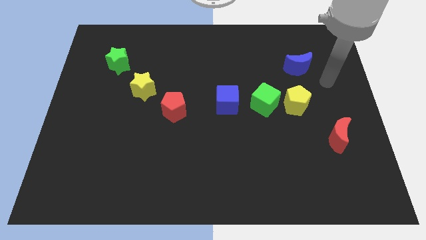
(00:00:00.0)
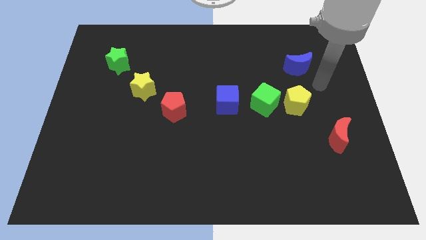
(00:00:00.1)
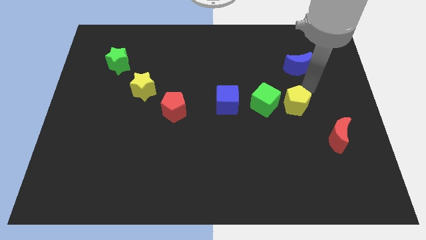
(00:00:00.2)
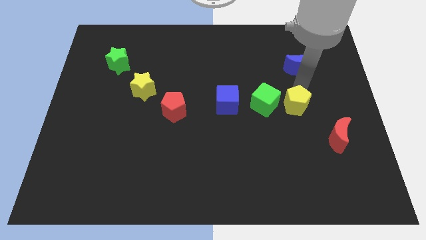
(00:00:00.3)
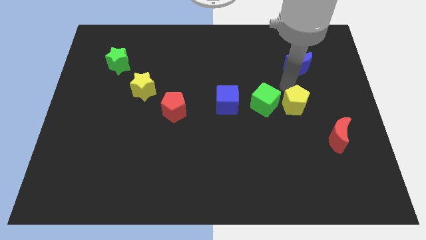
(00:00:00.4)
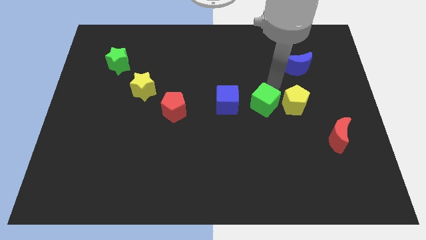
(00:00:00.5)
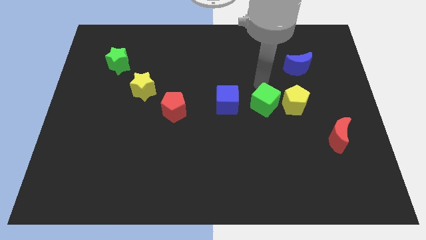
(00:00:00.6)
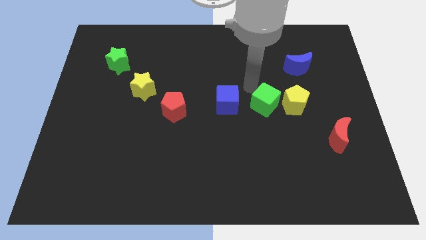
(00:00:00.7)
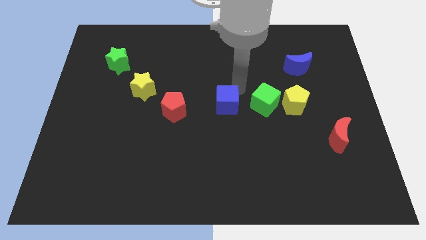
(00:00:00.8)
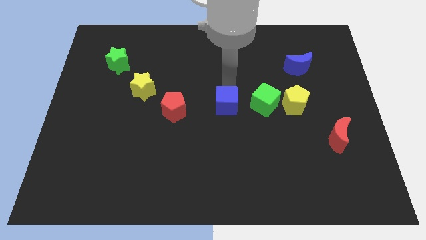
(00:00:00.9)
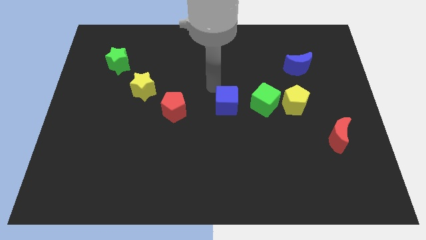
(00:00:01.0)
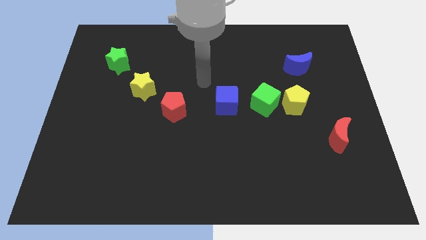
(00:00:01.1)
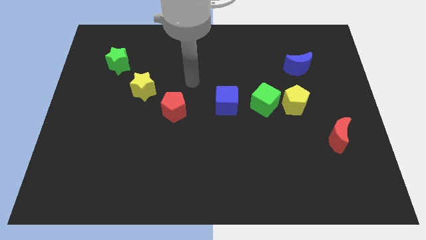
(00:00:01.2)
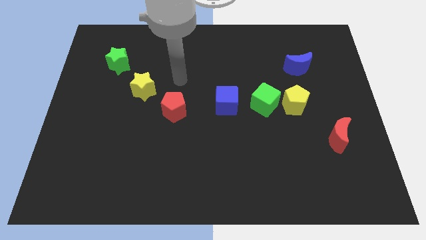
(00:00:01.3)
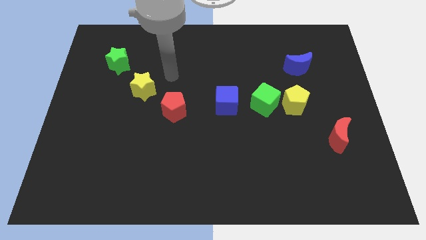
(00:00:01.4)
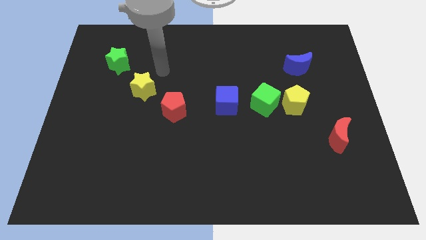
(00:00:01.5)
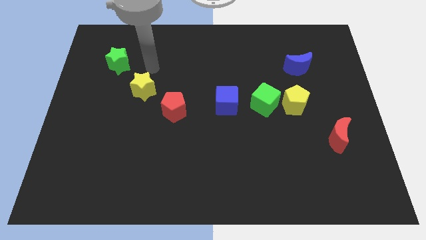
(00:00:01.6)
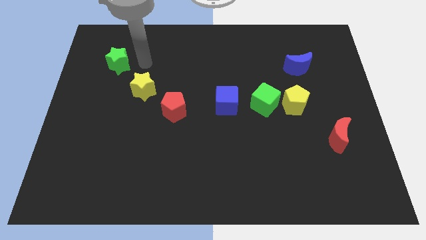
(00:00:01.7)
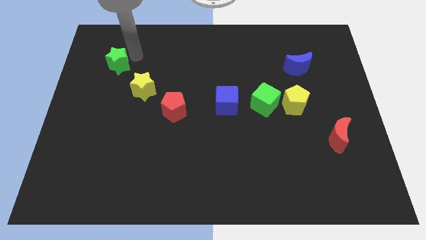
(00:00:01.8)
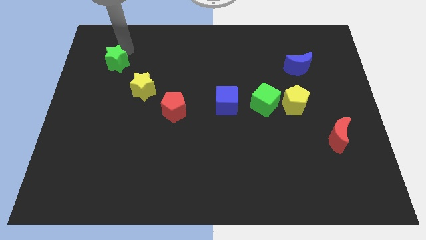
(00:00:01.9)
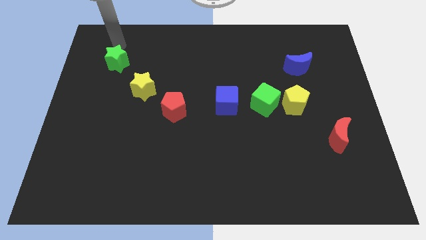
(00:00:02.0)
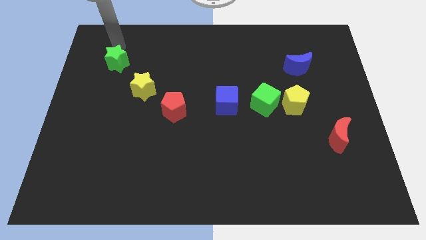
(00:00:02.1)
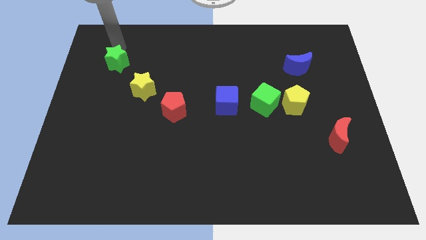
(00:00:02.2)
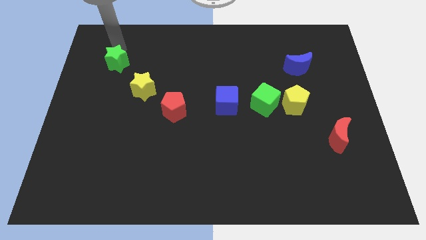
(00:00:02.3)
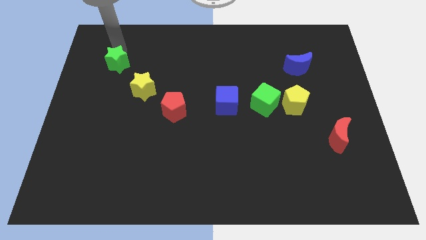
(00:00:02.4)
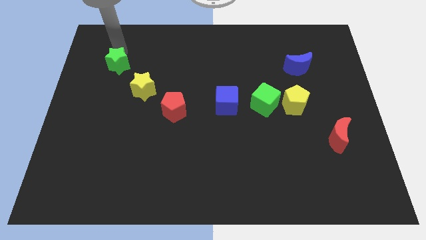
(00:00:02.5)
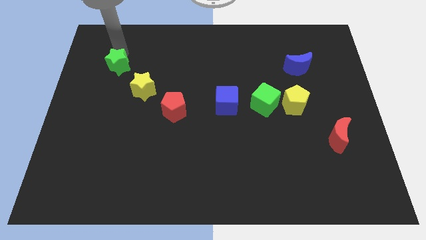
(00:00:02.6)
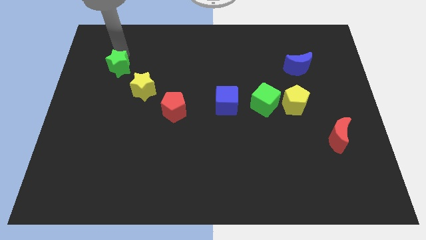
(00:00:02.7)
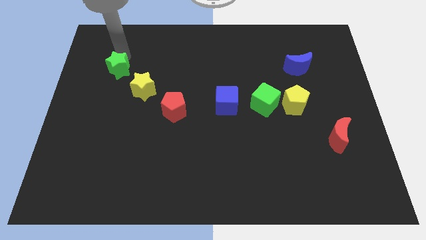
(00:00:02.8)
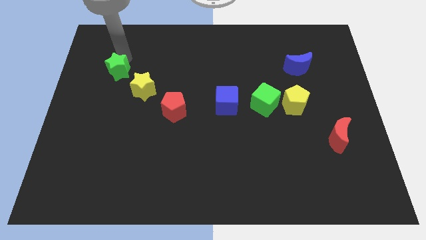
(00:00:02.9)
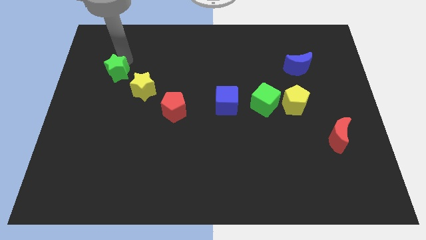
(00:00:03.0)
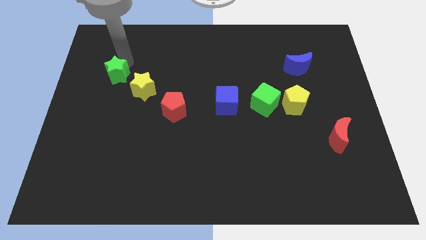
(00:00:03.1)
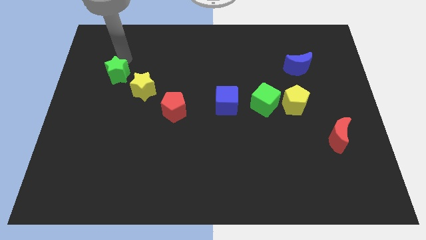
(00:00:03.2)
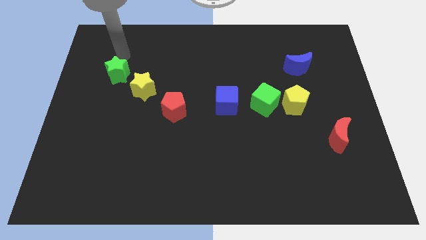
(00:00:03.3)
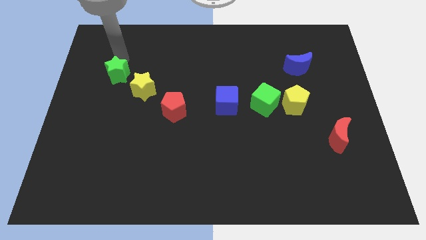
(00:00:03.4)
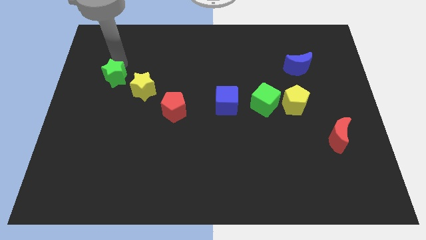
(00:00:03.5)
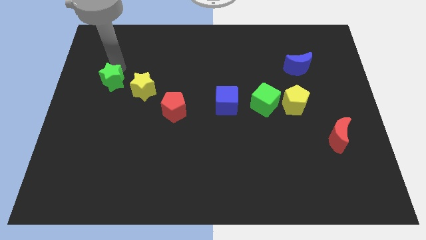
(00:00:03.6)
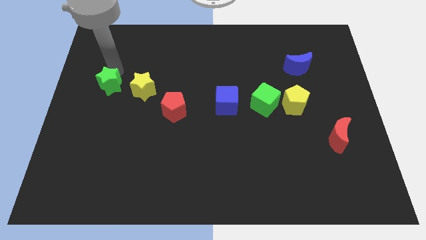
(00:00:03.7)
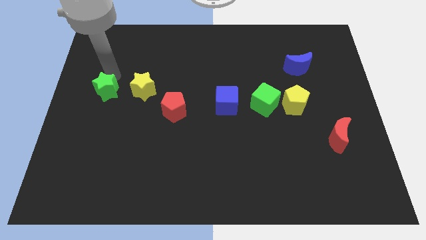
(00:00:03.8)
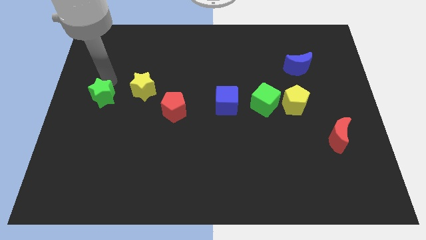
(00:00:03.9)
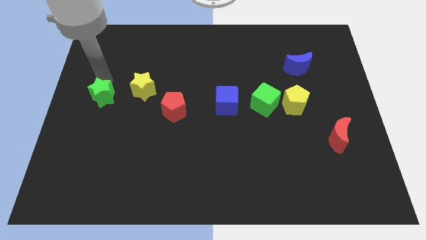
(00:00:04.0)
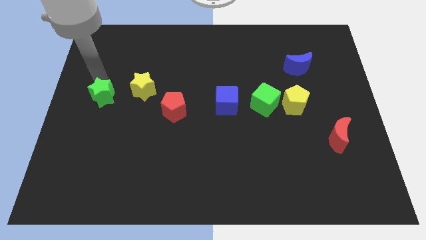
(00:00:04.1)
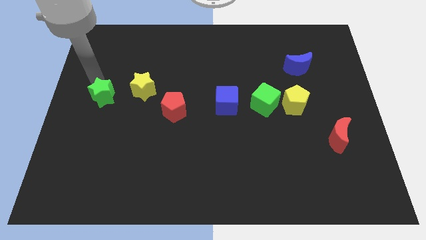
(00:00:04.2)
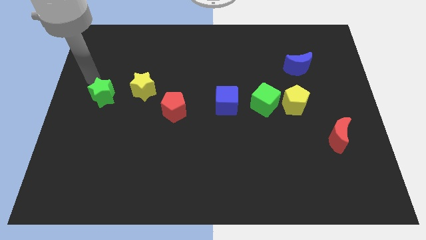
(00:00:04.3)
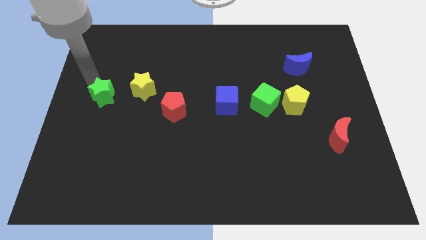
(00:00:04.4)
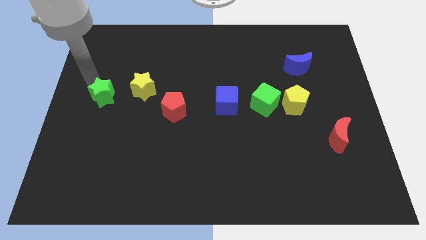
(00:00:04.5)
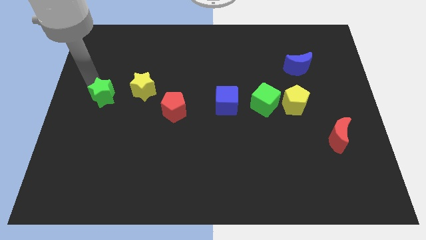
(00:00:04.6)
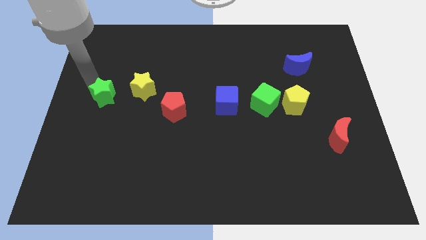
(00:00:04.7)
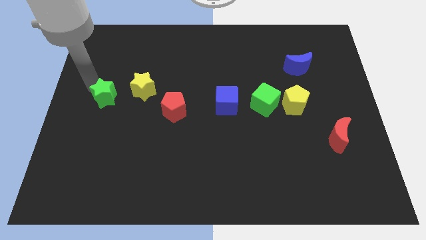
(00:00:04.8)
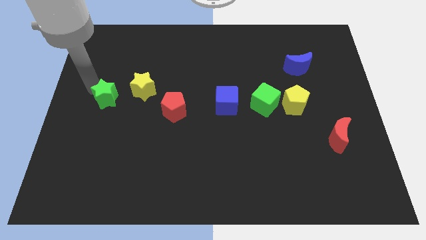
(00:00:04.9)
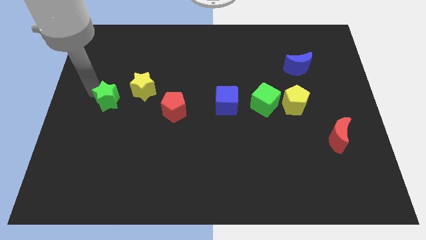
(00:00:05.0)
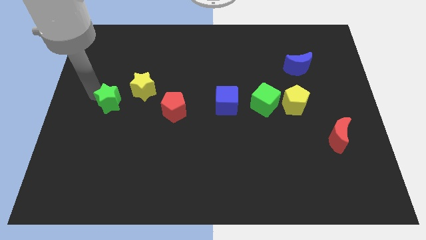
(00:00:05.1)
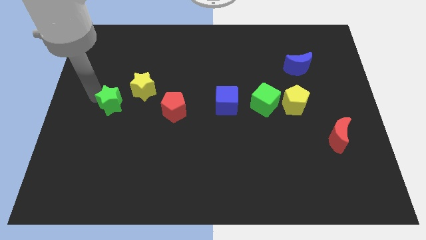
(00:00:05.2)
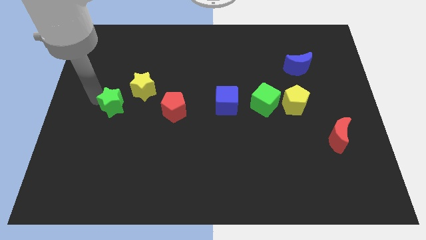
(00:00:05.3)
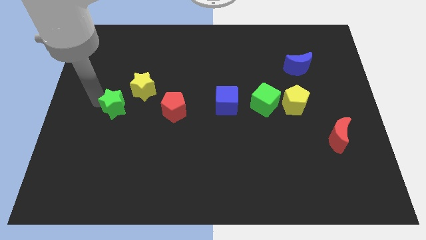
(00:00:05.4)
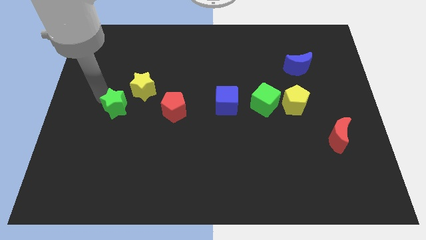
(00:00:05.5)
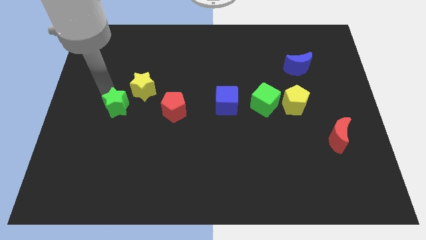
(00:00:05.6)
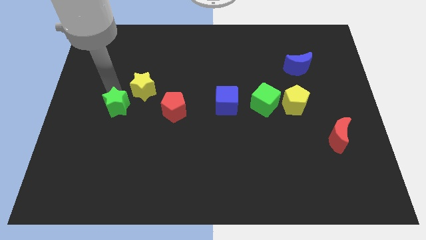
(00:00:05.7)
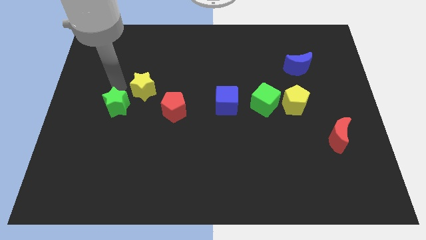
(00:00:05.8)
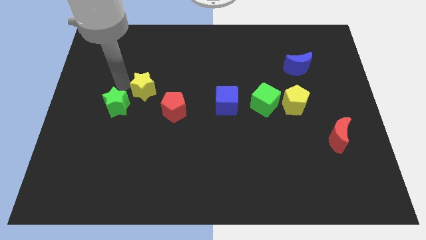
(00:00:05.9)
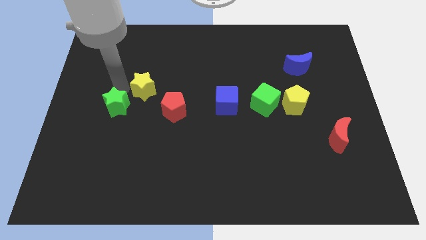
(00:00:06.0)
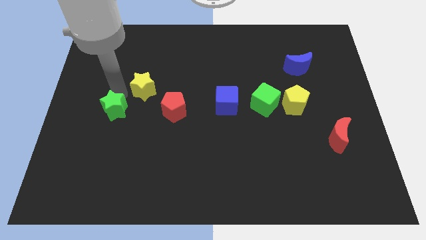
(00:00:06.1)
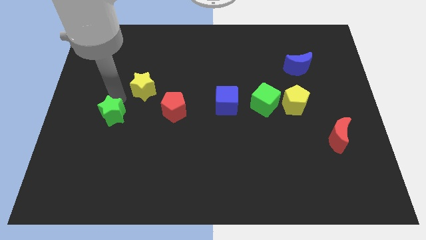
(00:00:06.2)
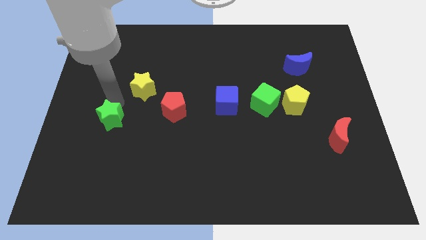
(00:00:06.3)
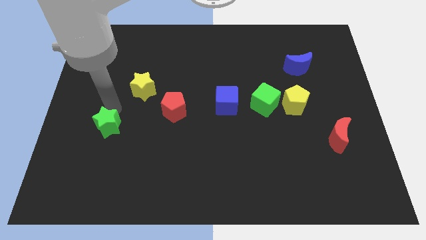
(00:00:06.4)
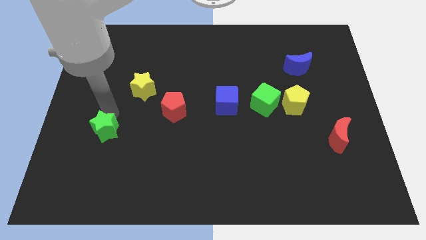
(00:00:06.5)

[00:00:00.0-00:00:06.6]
move the green star downwards

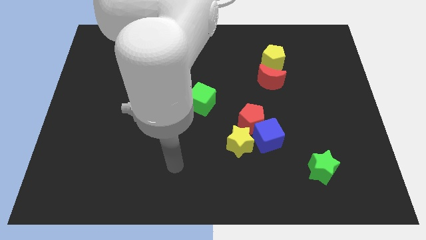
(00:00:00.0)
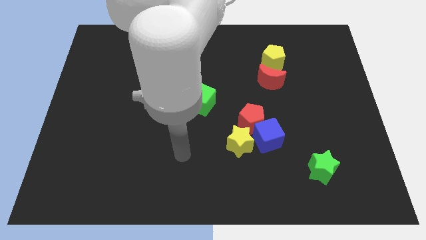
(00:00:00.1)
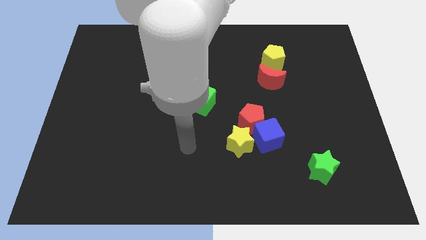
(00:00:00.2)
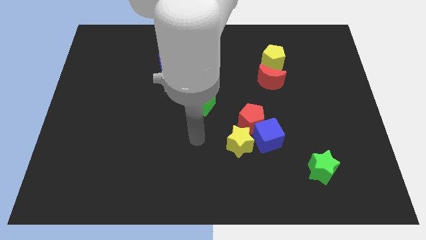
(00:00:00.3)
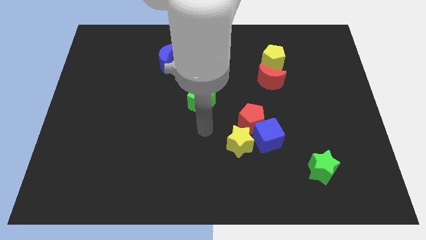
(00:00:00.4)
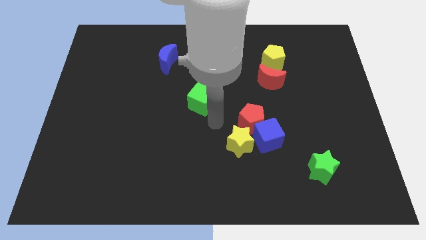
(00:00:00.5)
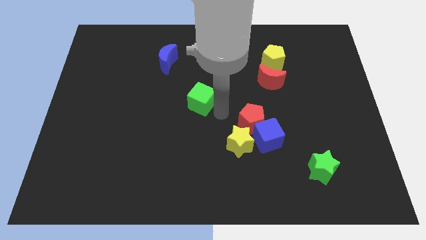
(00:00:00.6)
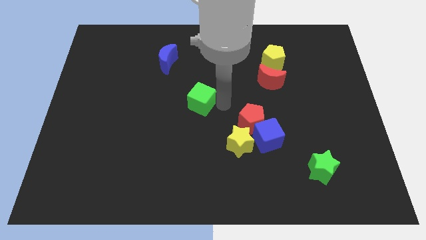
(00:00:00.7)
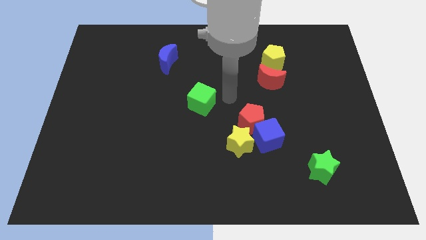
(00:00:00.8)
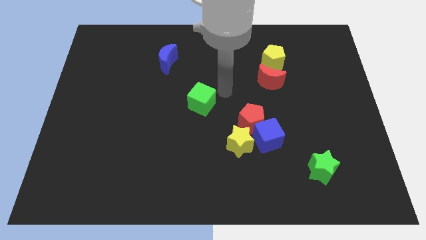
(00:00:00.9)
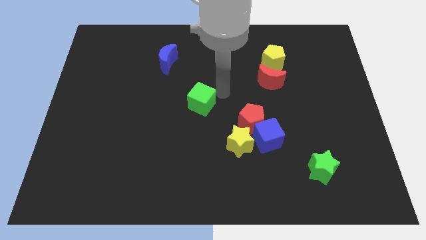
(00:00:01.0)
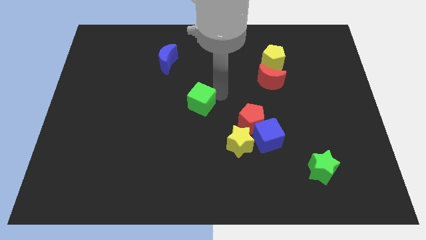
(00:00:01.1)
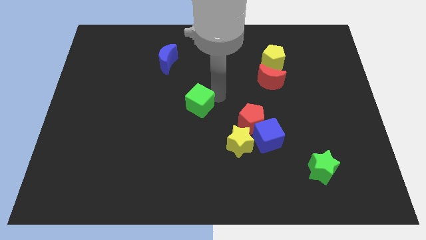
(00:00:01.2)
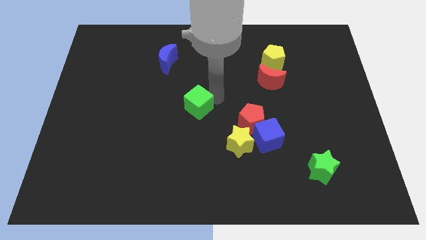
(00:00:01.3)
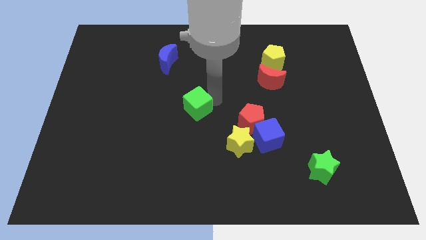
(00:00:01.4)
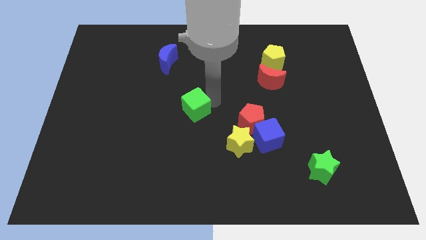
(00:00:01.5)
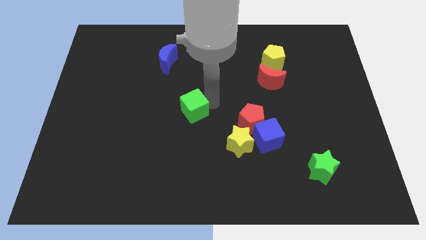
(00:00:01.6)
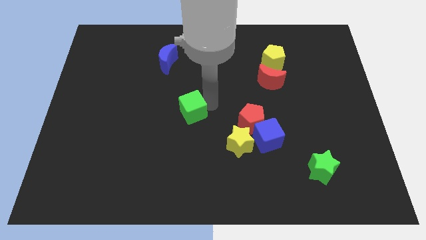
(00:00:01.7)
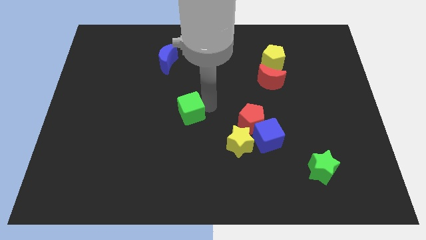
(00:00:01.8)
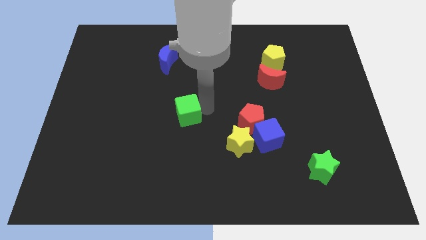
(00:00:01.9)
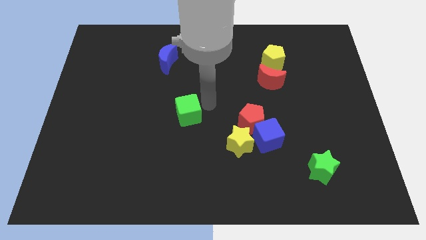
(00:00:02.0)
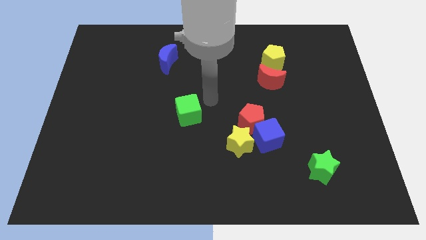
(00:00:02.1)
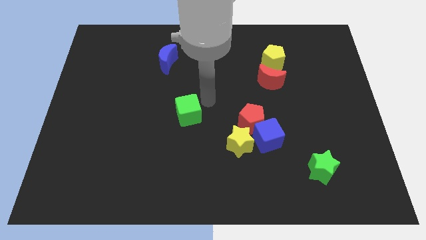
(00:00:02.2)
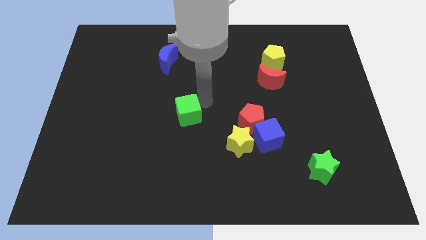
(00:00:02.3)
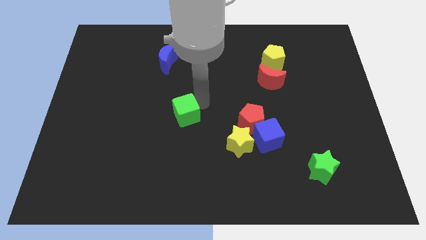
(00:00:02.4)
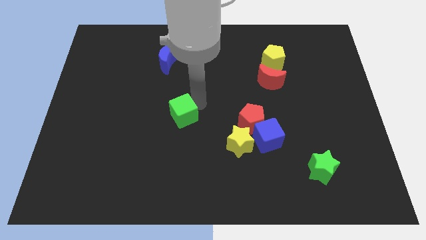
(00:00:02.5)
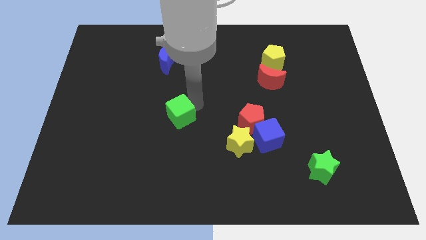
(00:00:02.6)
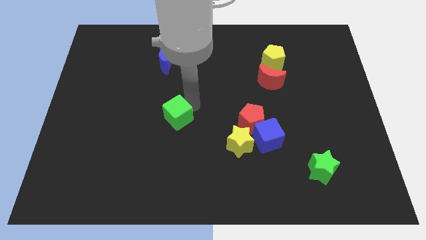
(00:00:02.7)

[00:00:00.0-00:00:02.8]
slightly slide the green cube down and to the left diagonally
